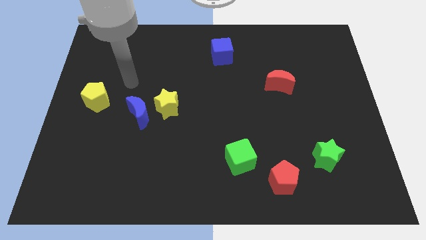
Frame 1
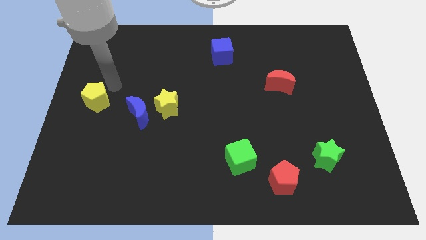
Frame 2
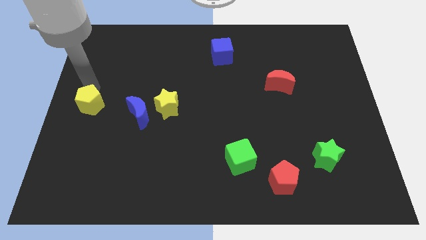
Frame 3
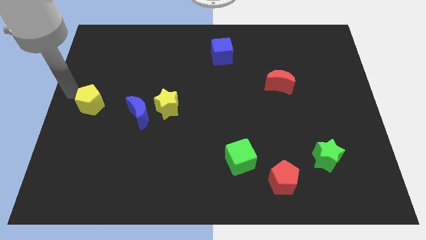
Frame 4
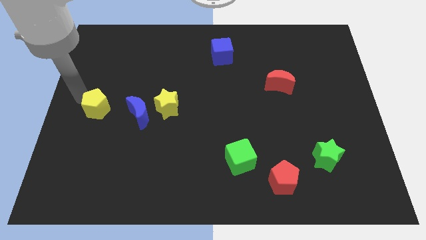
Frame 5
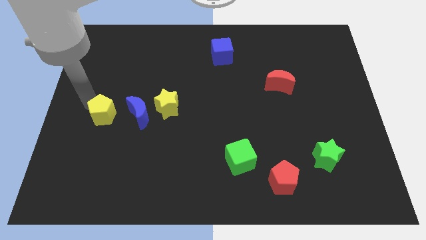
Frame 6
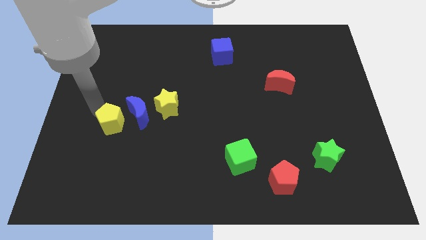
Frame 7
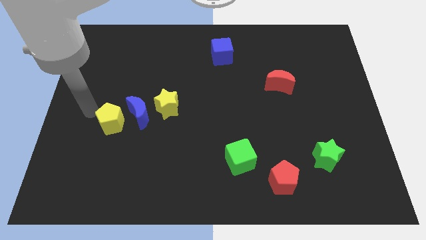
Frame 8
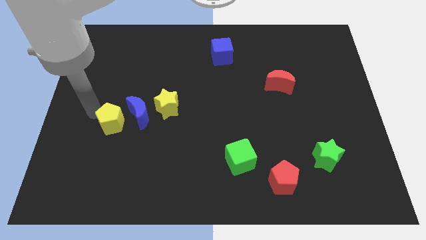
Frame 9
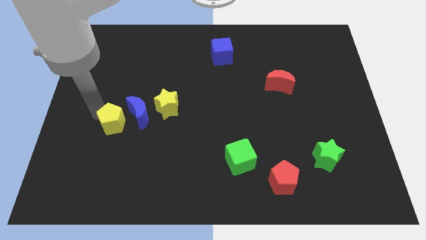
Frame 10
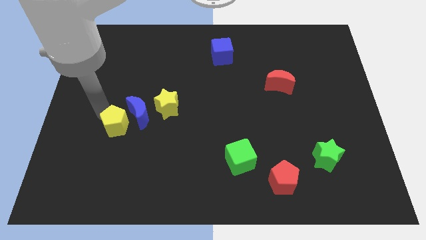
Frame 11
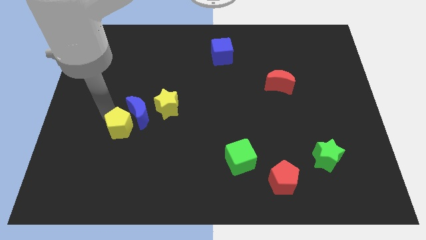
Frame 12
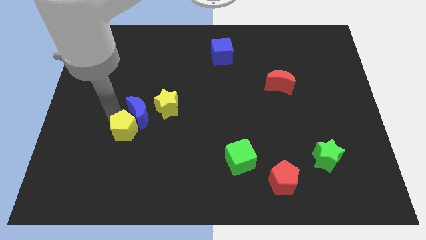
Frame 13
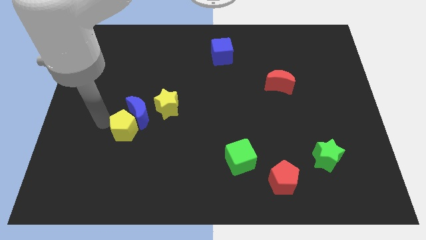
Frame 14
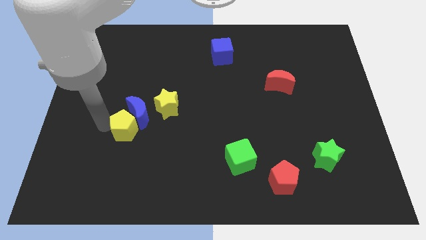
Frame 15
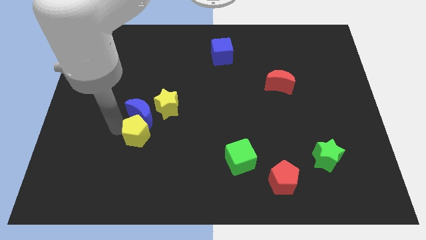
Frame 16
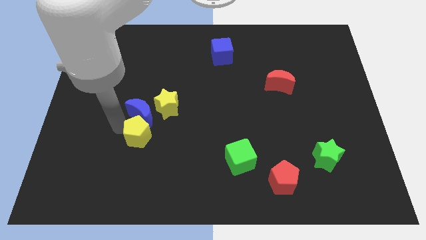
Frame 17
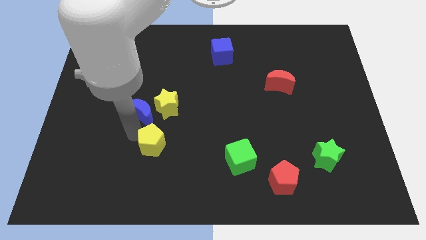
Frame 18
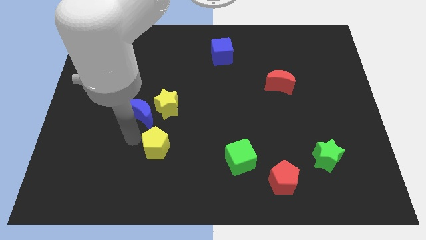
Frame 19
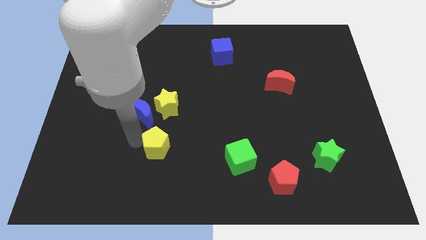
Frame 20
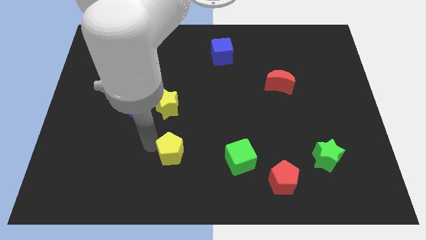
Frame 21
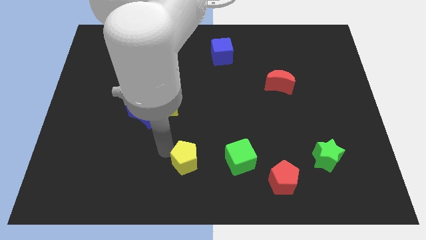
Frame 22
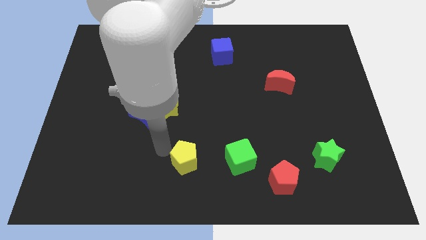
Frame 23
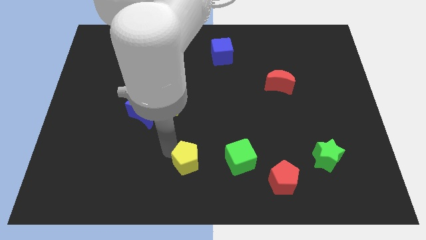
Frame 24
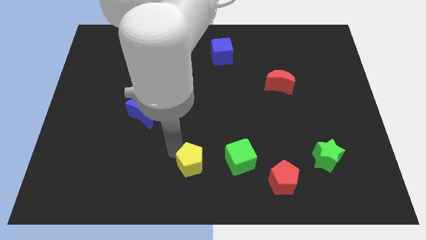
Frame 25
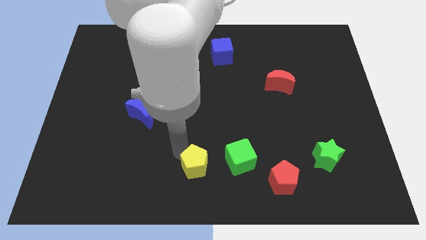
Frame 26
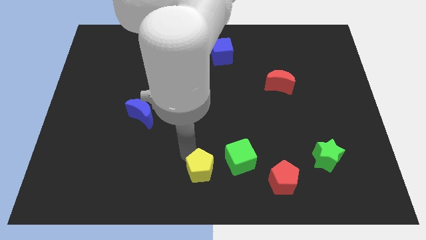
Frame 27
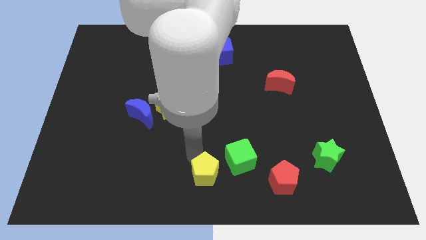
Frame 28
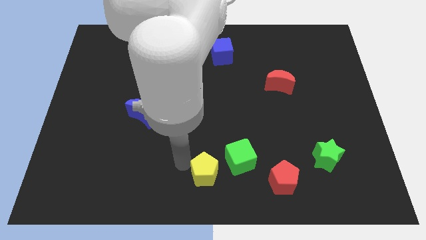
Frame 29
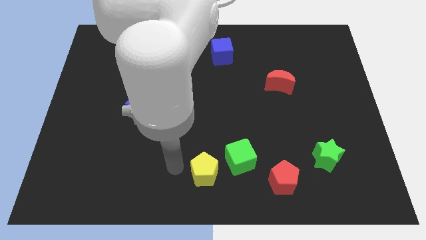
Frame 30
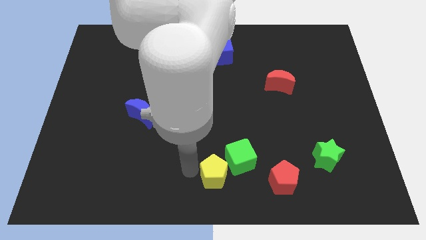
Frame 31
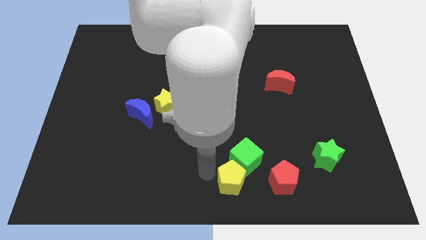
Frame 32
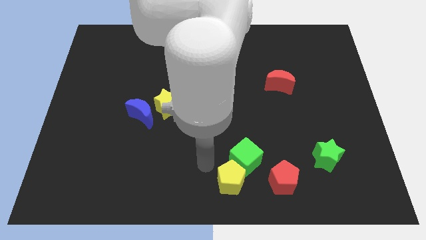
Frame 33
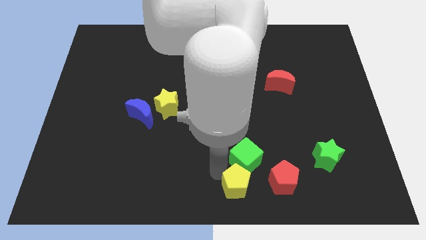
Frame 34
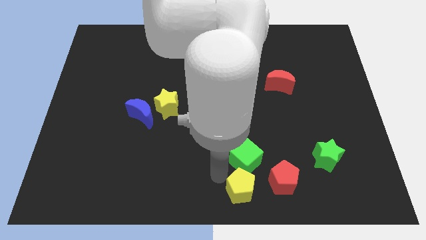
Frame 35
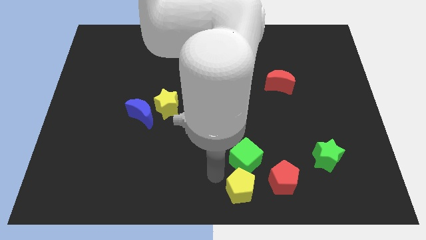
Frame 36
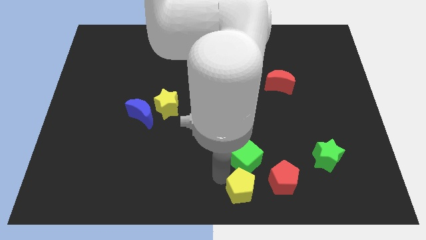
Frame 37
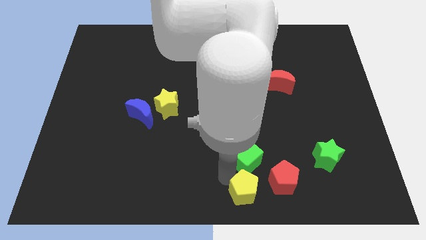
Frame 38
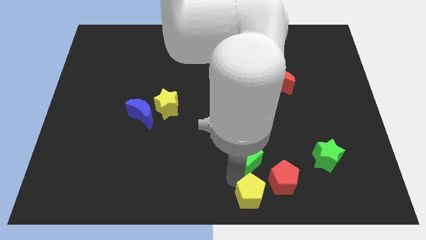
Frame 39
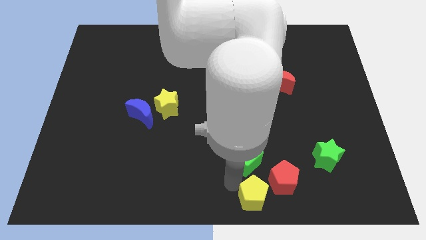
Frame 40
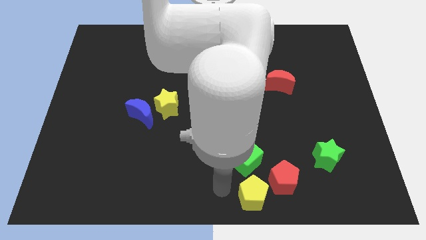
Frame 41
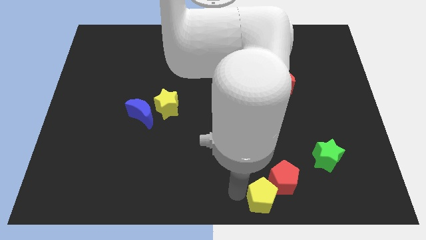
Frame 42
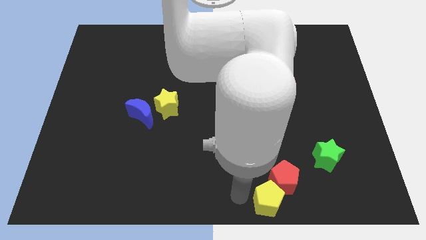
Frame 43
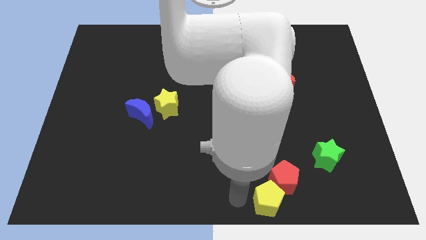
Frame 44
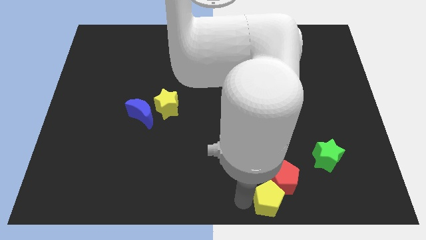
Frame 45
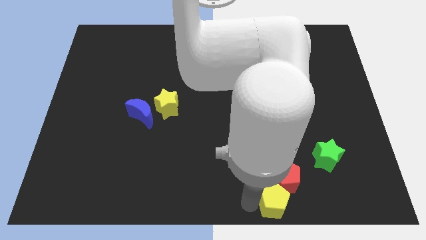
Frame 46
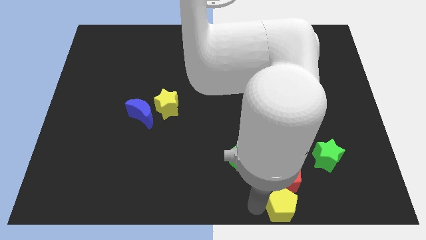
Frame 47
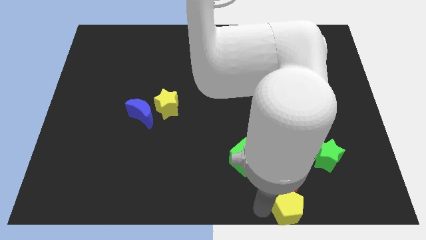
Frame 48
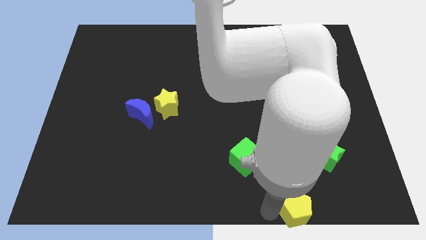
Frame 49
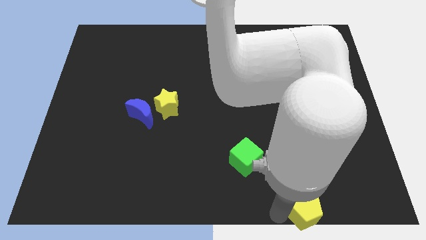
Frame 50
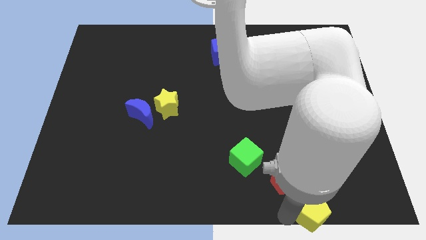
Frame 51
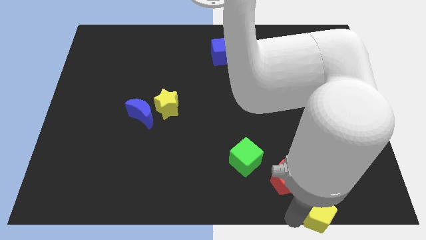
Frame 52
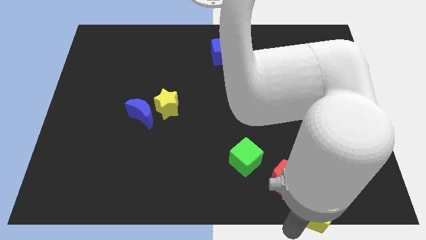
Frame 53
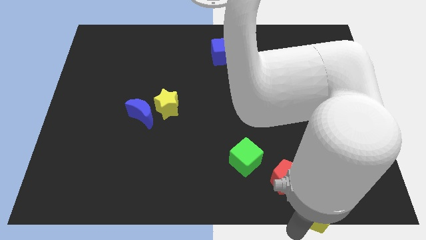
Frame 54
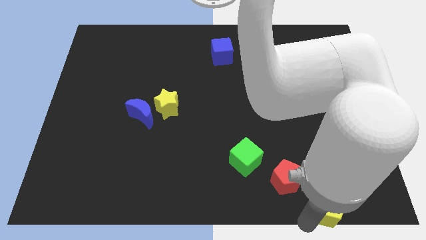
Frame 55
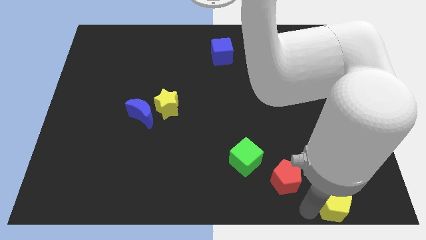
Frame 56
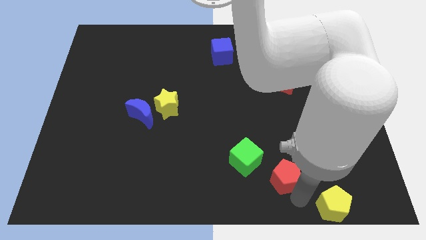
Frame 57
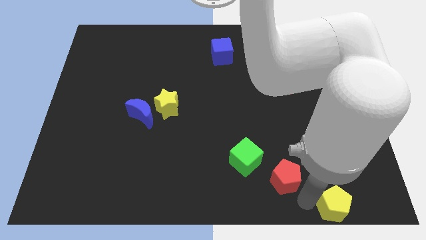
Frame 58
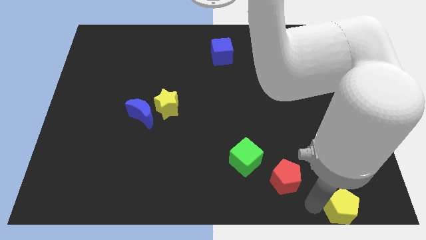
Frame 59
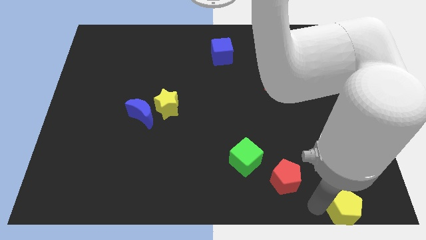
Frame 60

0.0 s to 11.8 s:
put the yellow pentagon to the bottom right

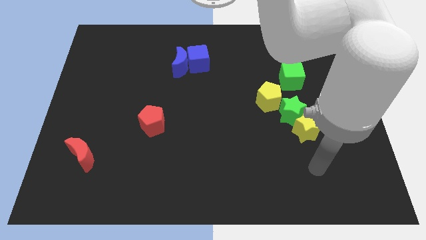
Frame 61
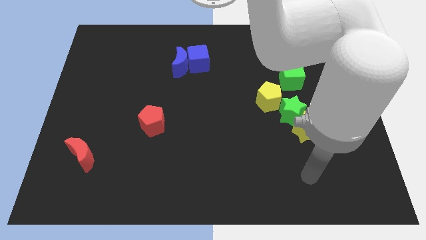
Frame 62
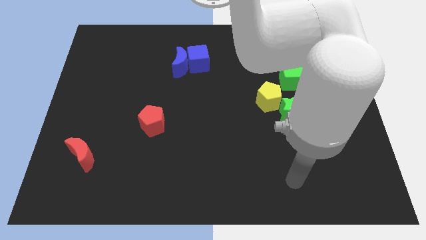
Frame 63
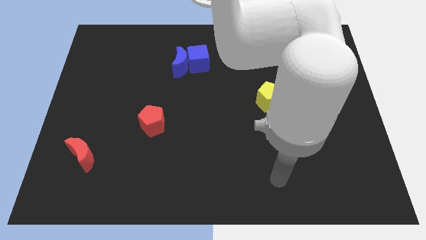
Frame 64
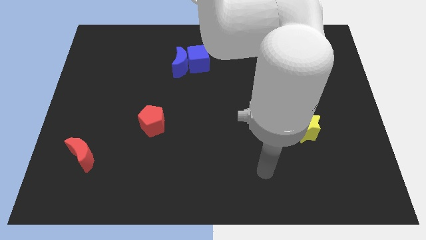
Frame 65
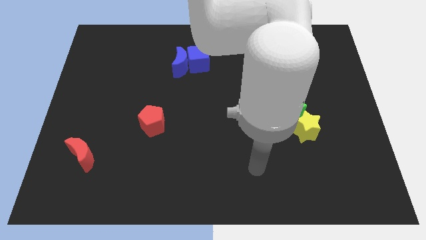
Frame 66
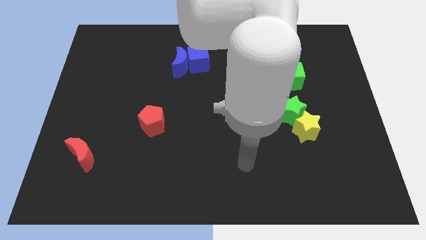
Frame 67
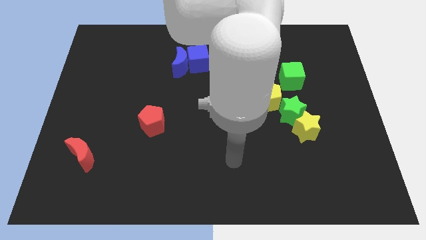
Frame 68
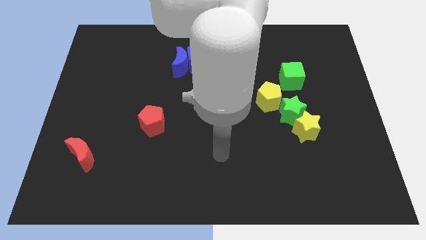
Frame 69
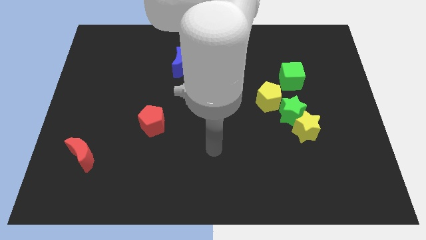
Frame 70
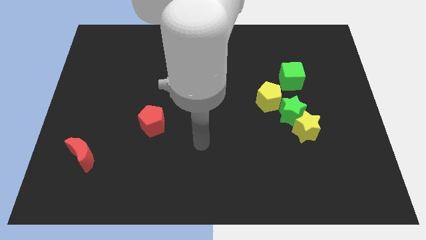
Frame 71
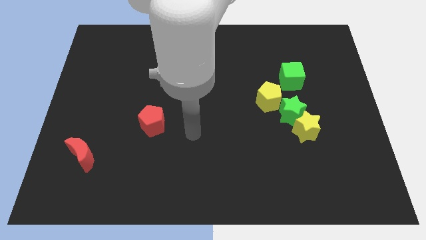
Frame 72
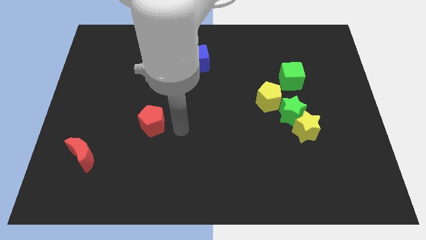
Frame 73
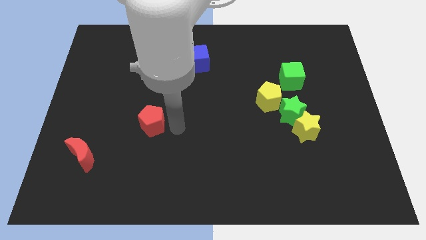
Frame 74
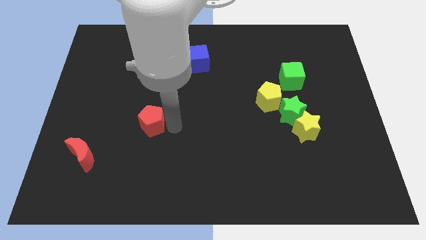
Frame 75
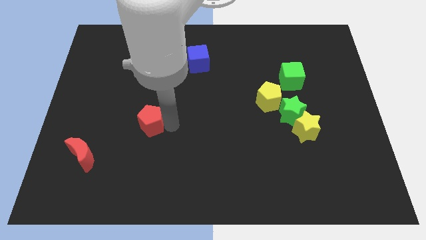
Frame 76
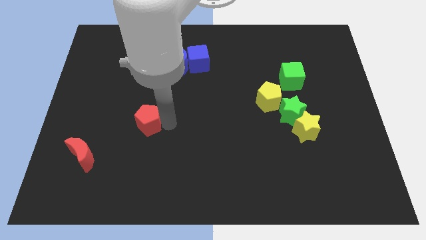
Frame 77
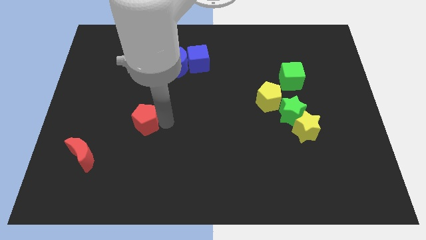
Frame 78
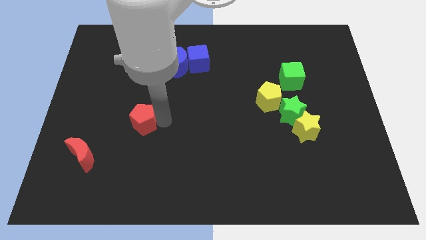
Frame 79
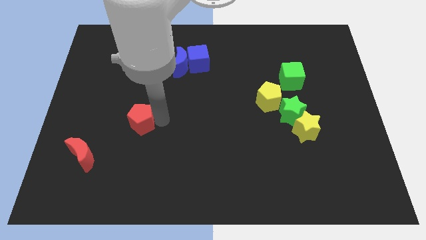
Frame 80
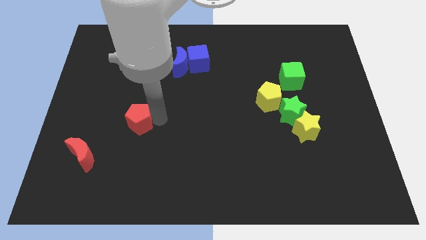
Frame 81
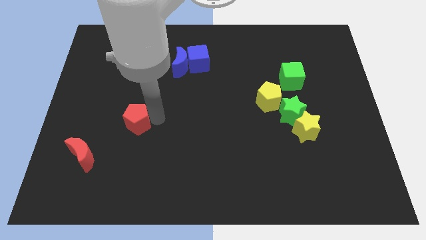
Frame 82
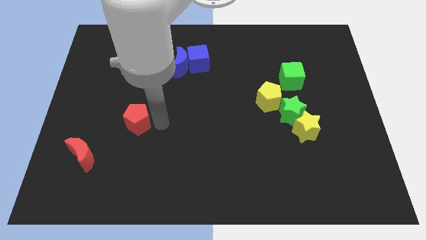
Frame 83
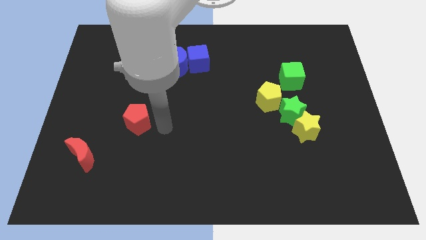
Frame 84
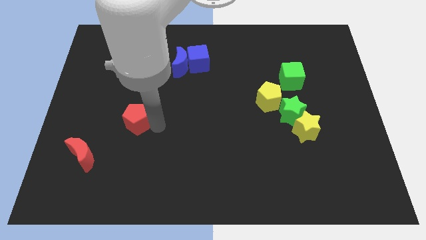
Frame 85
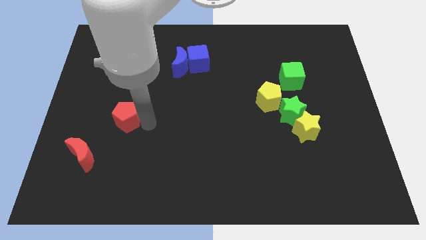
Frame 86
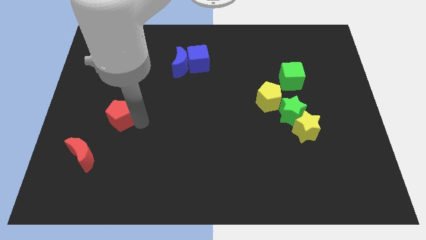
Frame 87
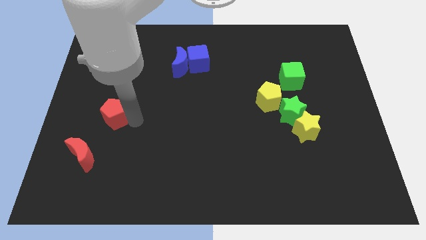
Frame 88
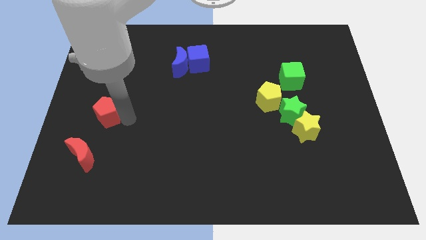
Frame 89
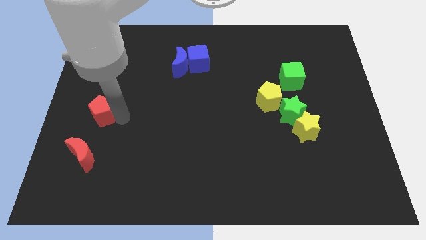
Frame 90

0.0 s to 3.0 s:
put the red pentagon to the left side
